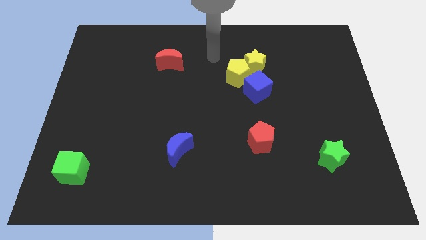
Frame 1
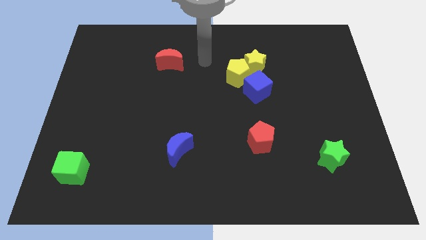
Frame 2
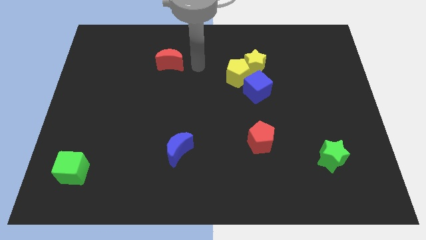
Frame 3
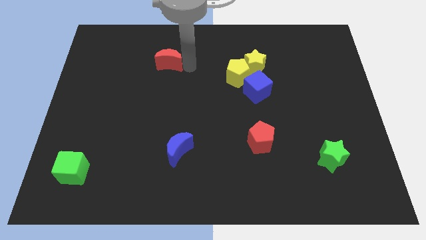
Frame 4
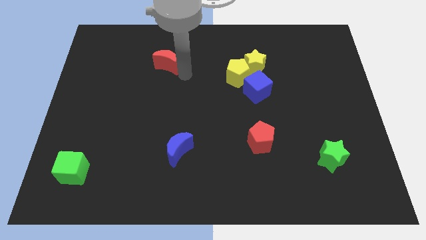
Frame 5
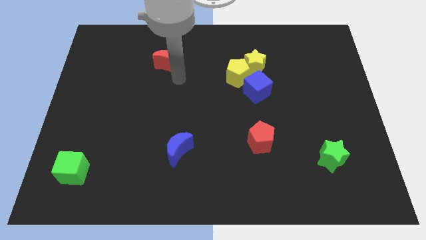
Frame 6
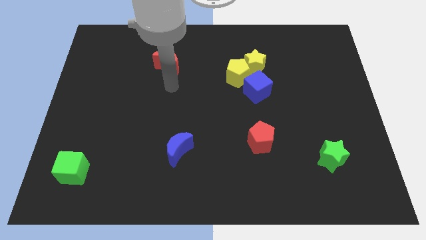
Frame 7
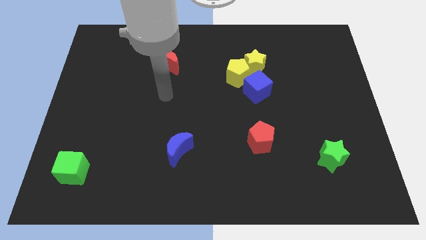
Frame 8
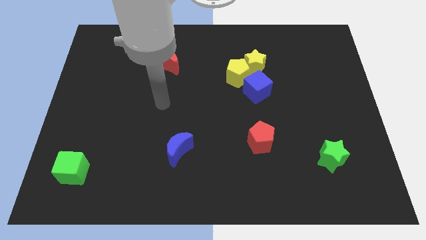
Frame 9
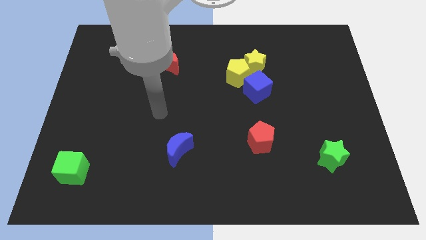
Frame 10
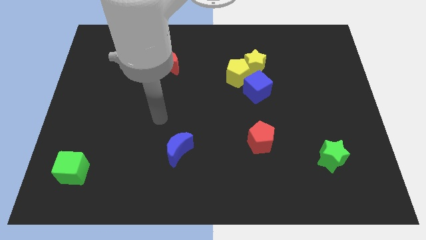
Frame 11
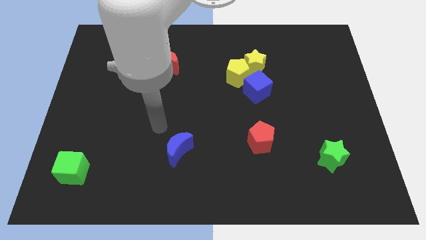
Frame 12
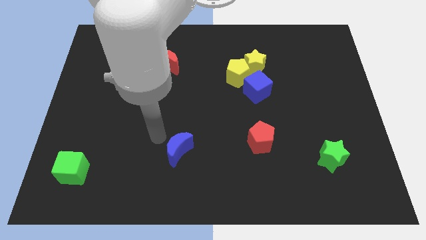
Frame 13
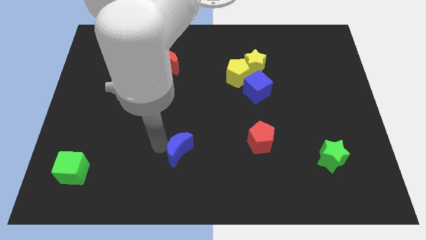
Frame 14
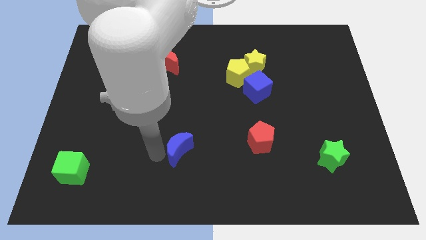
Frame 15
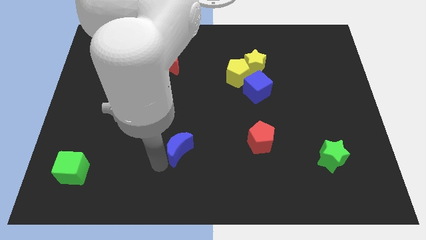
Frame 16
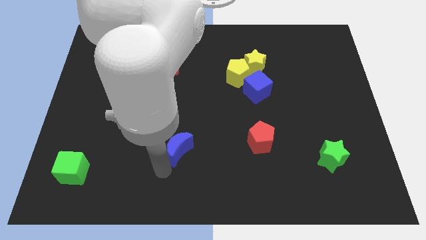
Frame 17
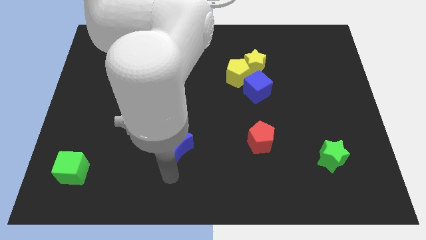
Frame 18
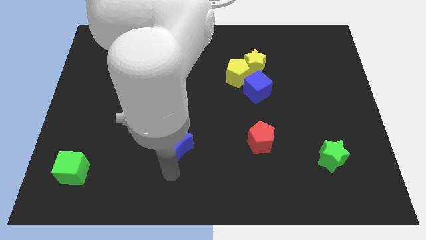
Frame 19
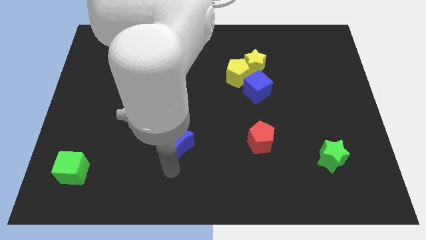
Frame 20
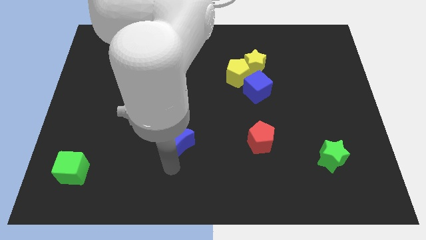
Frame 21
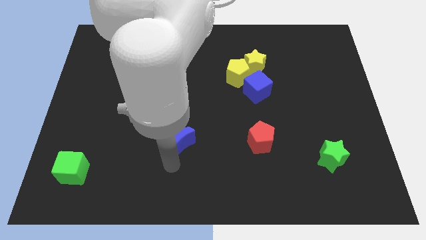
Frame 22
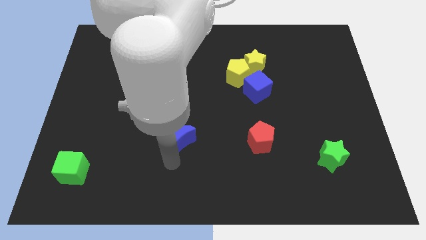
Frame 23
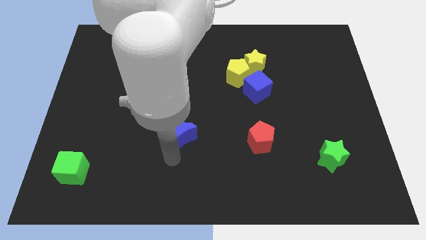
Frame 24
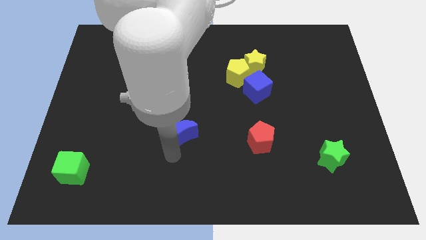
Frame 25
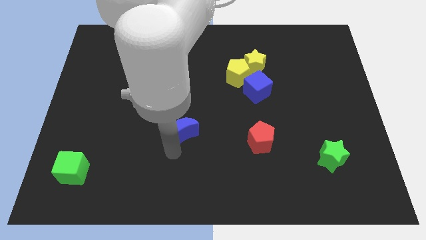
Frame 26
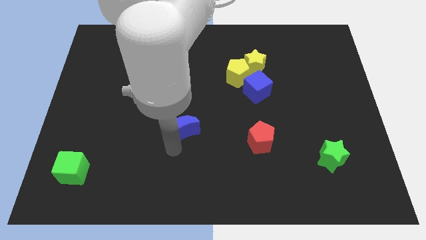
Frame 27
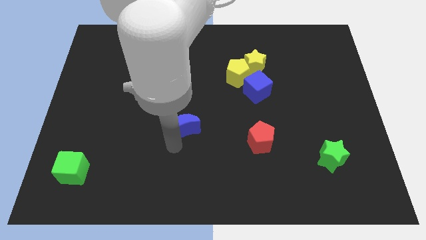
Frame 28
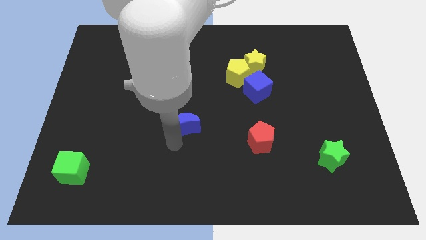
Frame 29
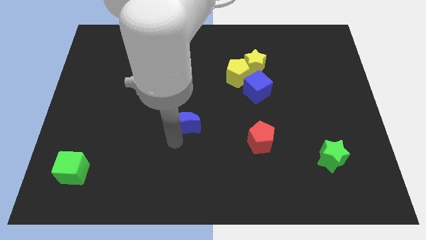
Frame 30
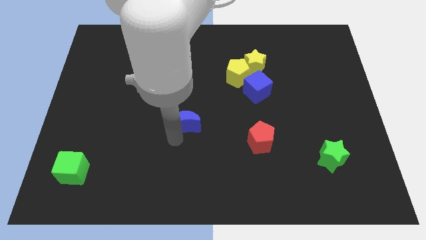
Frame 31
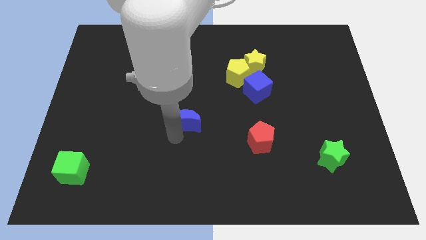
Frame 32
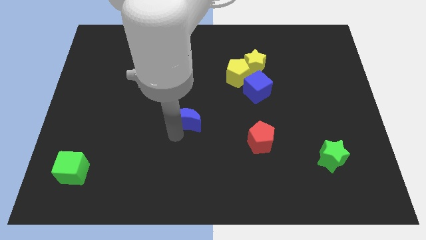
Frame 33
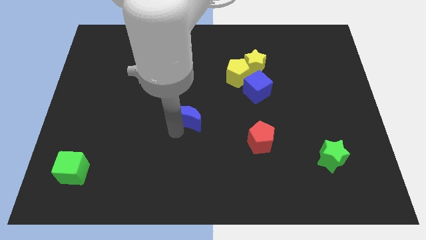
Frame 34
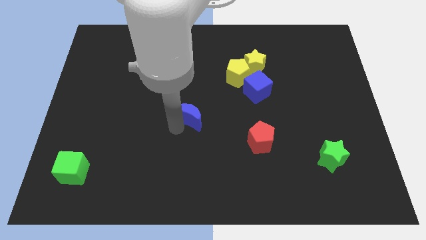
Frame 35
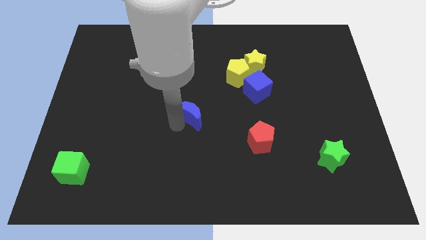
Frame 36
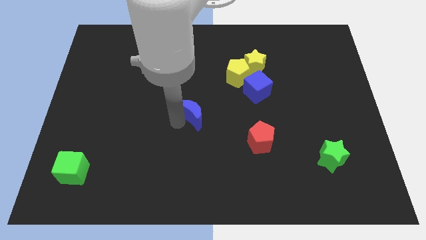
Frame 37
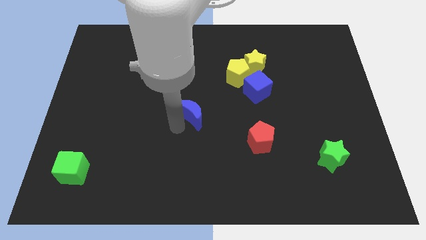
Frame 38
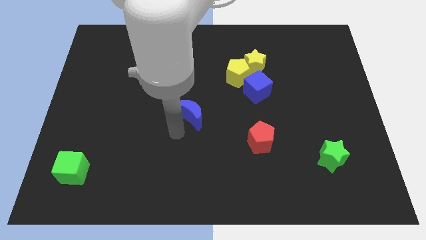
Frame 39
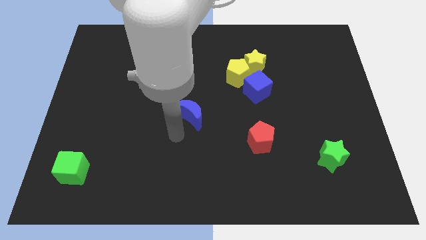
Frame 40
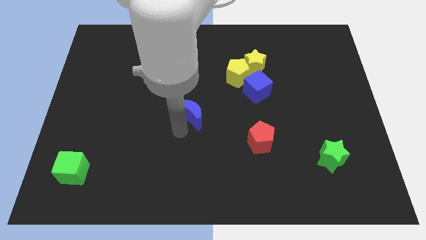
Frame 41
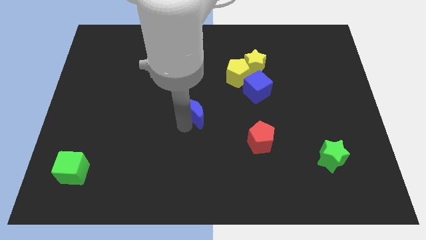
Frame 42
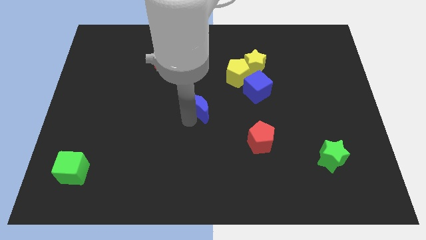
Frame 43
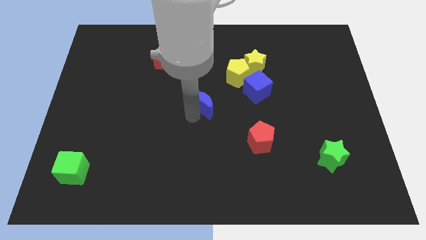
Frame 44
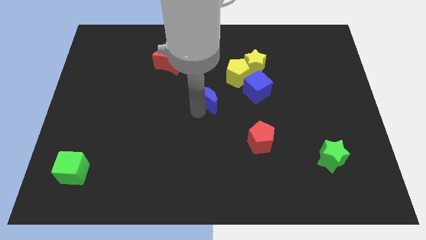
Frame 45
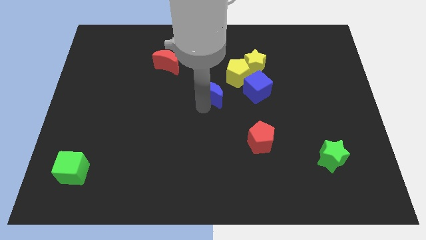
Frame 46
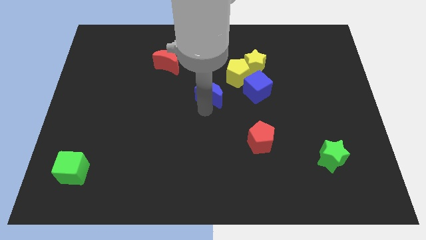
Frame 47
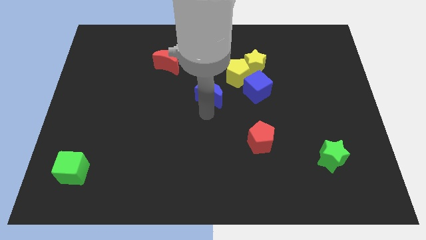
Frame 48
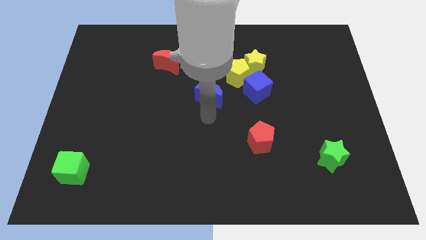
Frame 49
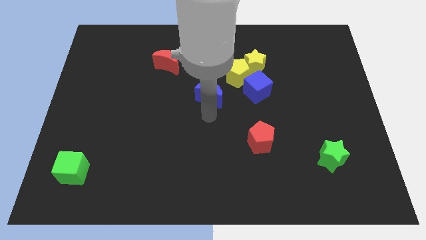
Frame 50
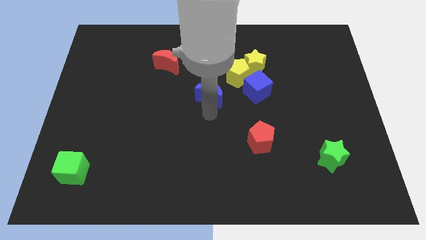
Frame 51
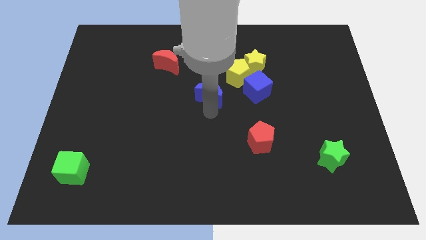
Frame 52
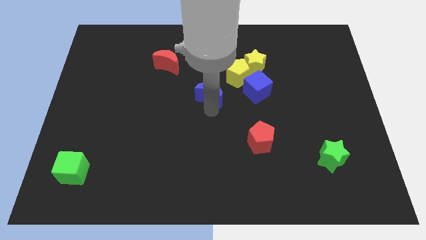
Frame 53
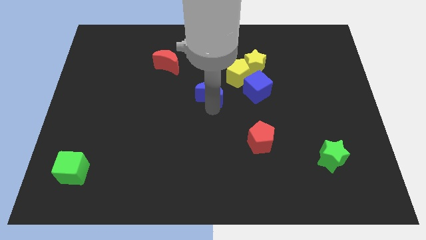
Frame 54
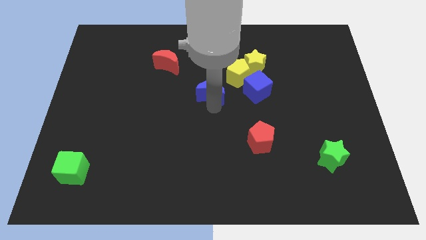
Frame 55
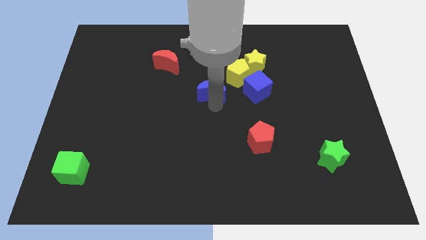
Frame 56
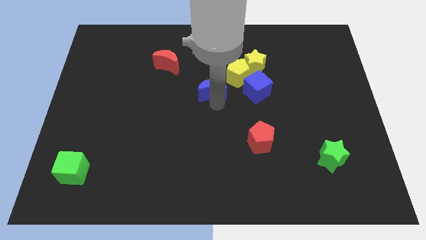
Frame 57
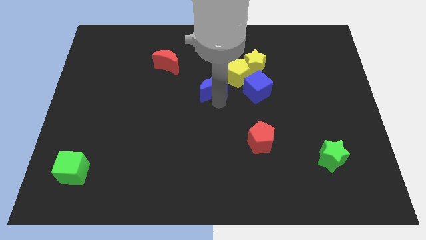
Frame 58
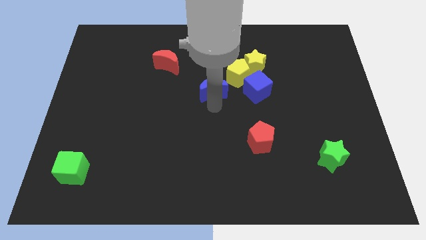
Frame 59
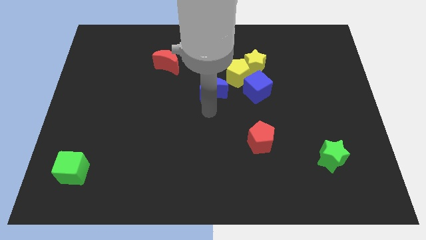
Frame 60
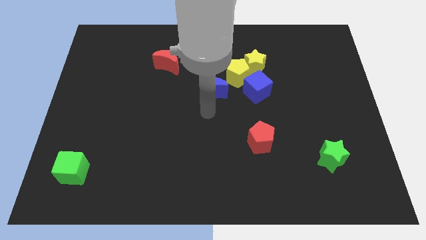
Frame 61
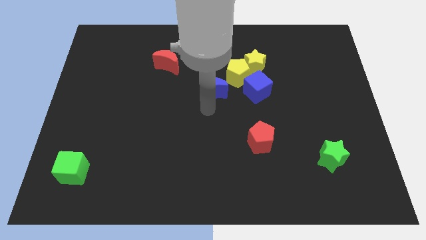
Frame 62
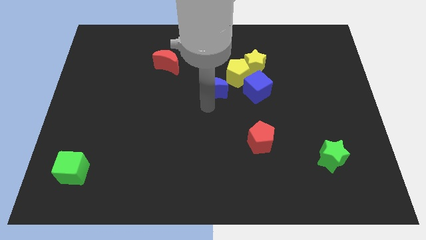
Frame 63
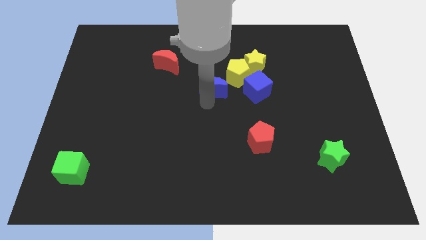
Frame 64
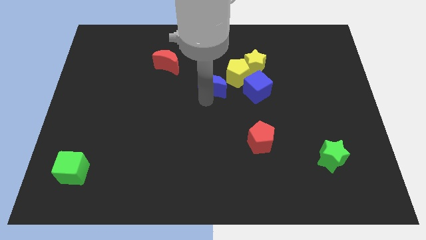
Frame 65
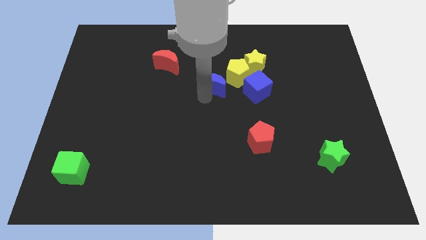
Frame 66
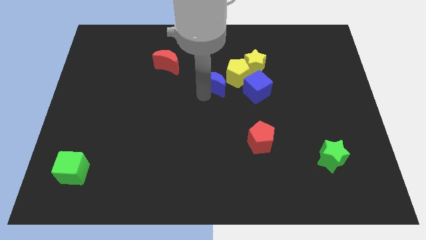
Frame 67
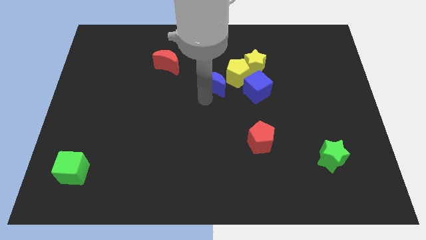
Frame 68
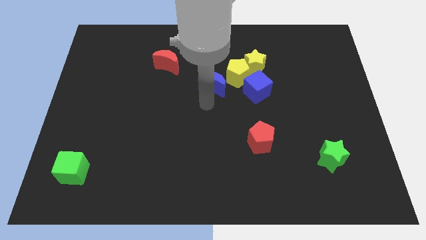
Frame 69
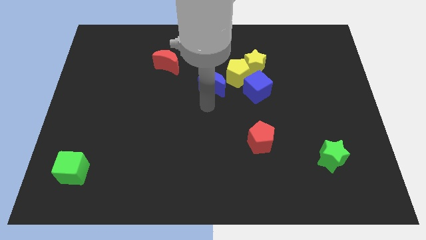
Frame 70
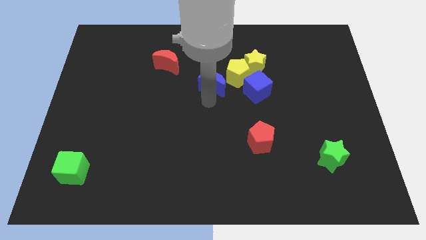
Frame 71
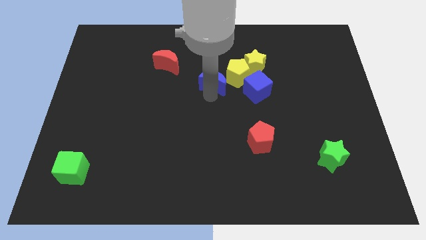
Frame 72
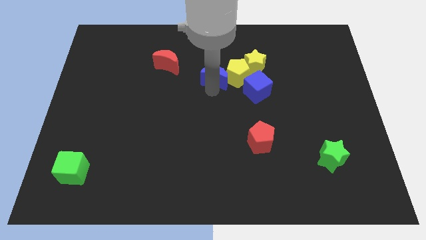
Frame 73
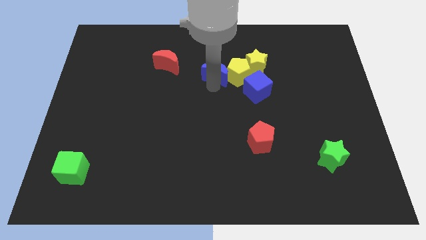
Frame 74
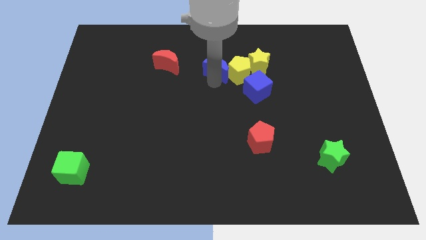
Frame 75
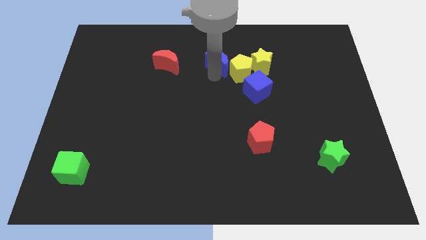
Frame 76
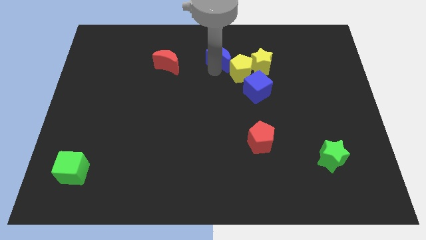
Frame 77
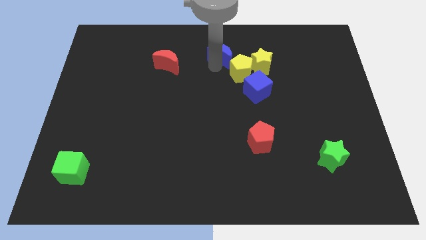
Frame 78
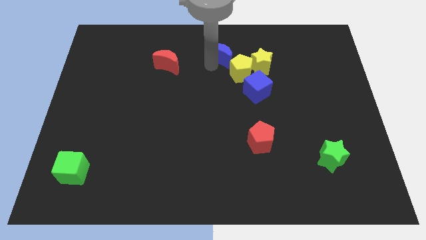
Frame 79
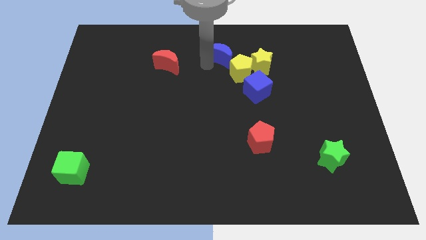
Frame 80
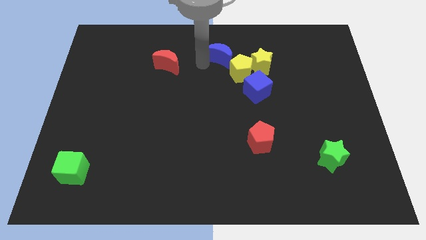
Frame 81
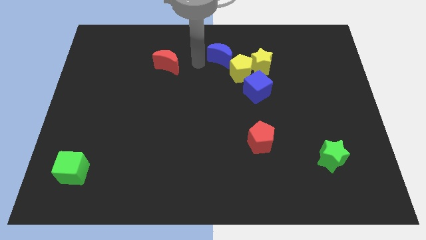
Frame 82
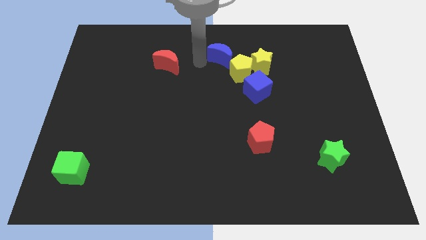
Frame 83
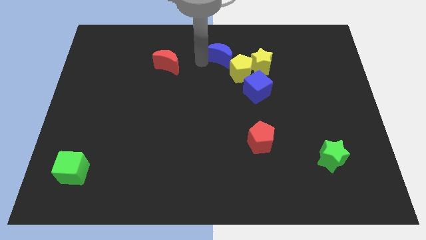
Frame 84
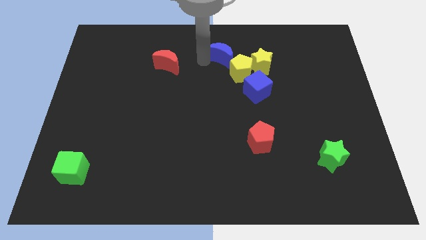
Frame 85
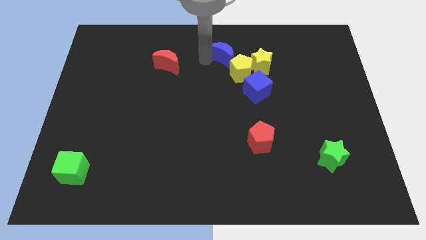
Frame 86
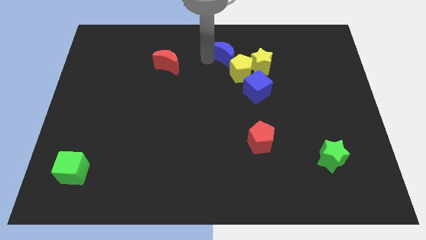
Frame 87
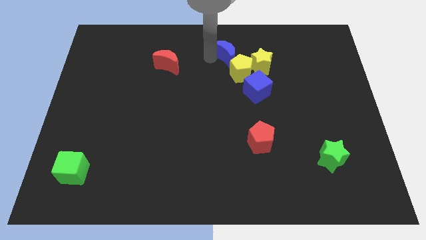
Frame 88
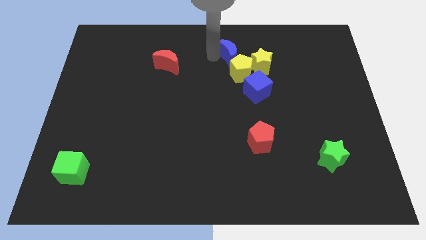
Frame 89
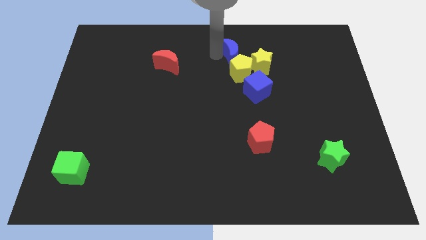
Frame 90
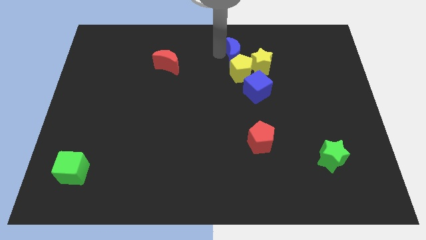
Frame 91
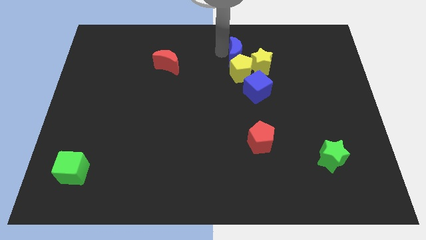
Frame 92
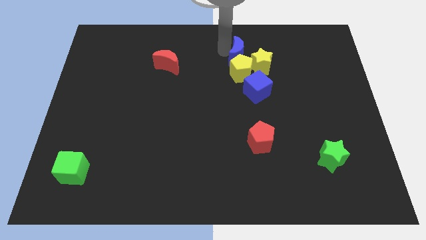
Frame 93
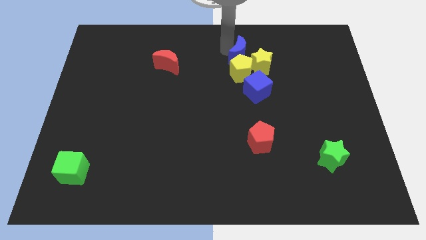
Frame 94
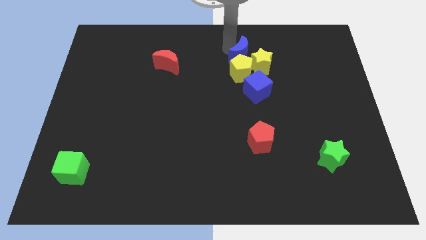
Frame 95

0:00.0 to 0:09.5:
move the blue moon next to the yellow star
